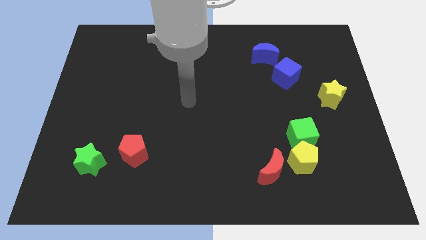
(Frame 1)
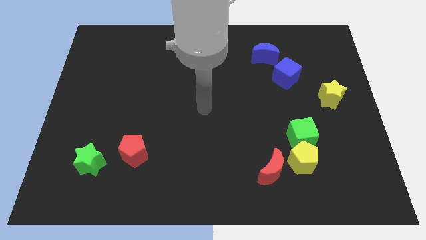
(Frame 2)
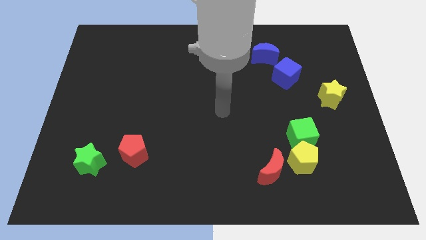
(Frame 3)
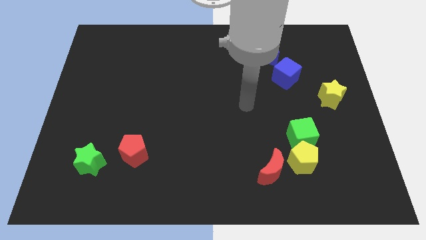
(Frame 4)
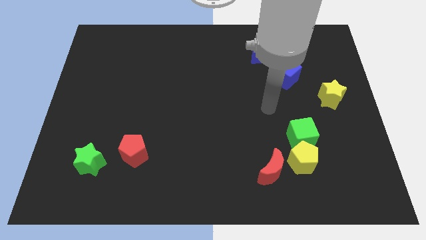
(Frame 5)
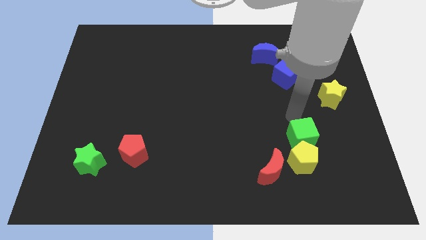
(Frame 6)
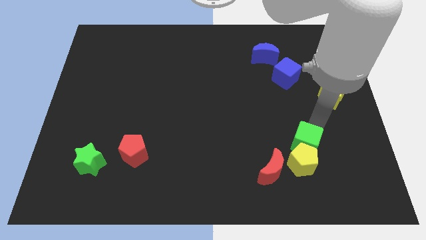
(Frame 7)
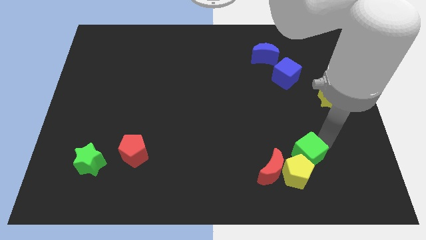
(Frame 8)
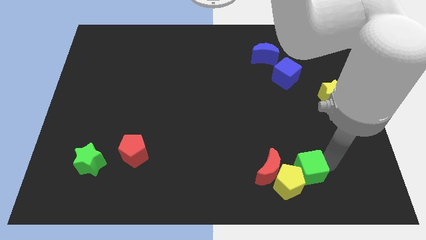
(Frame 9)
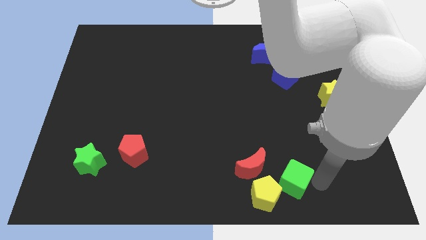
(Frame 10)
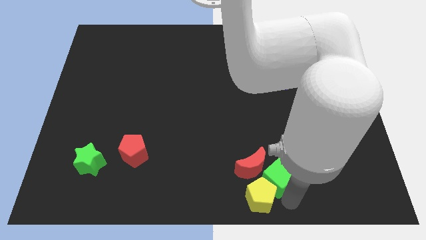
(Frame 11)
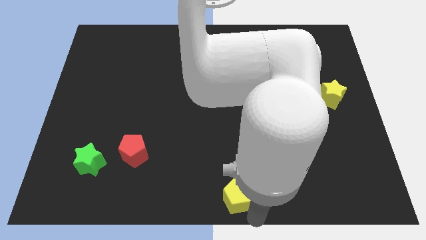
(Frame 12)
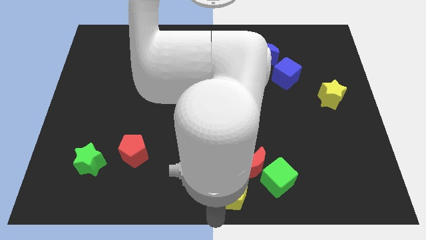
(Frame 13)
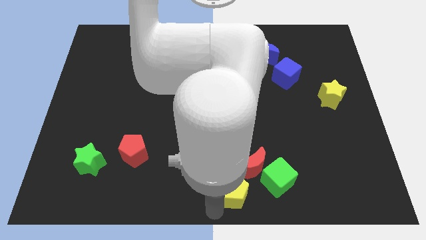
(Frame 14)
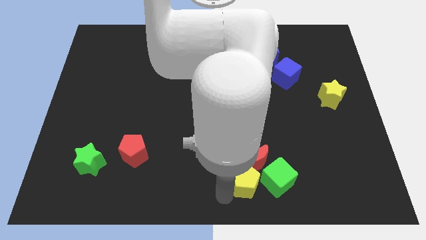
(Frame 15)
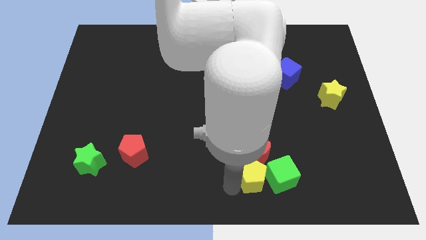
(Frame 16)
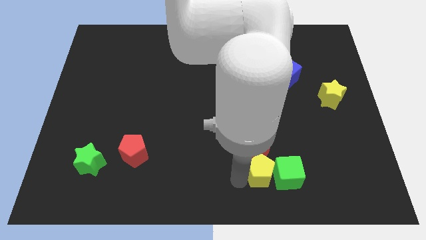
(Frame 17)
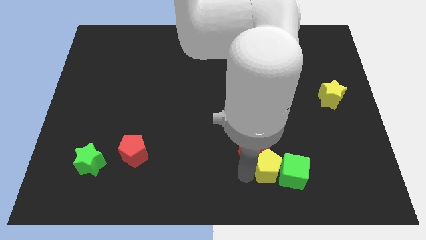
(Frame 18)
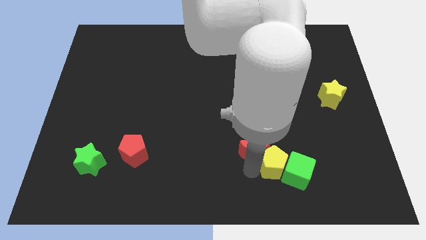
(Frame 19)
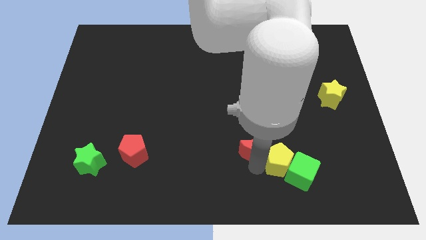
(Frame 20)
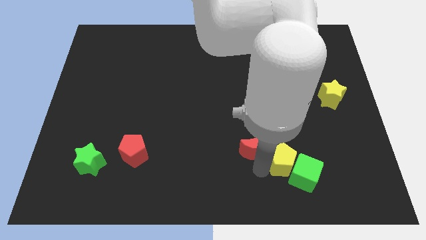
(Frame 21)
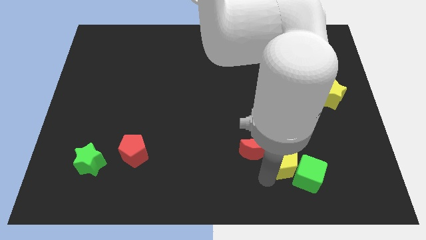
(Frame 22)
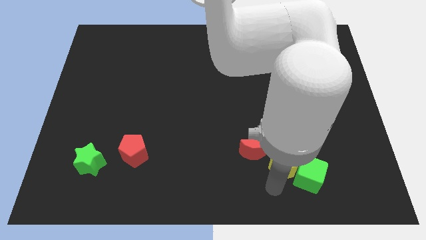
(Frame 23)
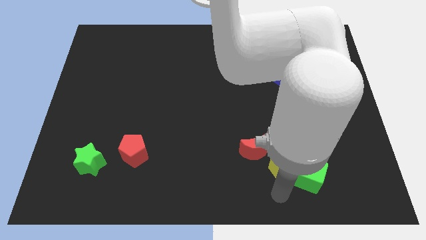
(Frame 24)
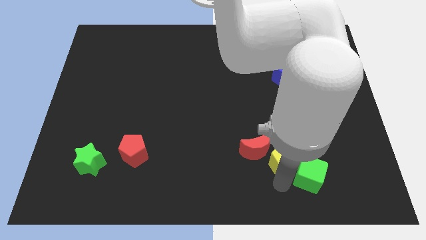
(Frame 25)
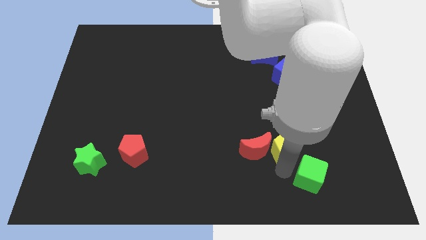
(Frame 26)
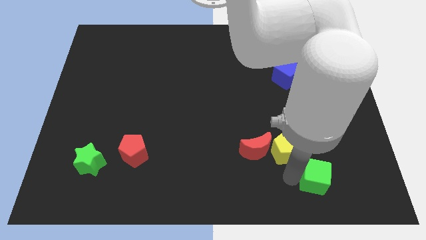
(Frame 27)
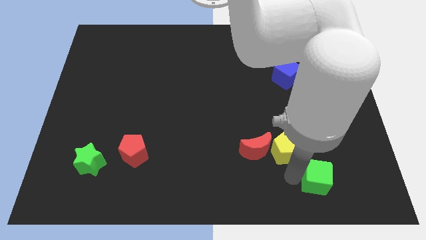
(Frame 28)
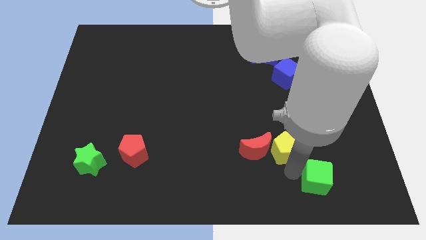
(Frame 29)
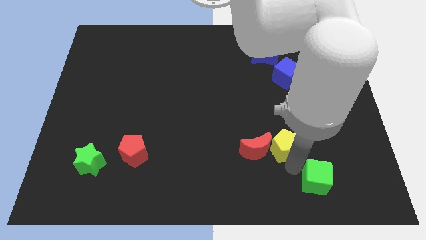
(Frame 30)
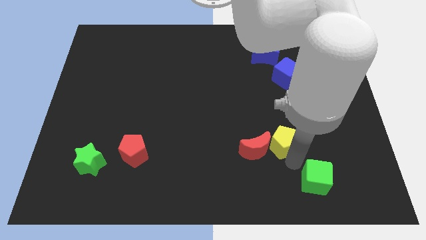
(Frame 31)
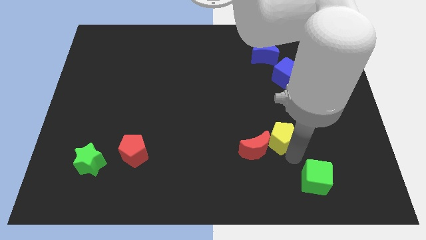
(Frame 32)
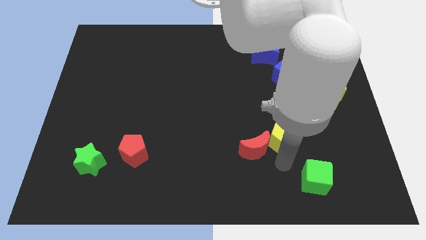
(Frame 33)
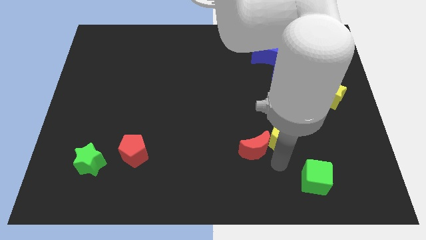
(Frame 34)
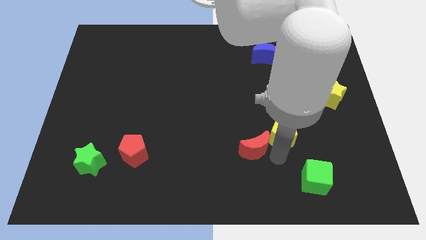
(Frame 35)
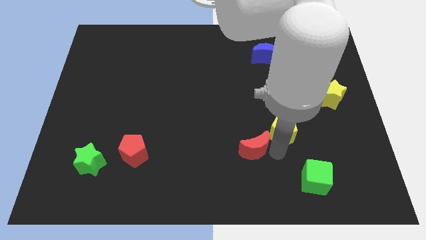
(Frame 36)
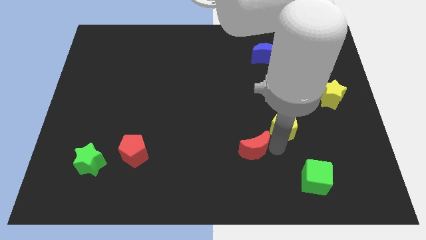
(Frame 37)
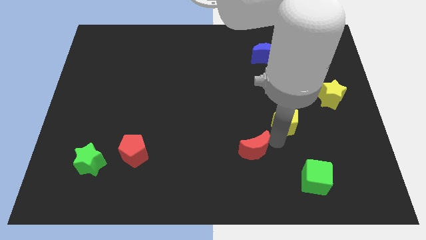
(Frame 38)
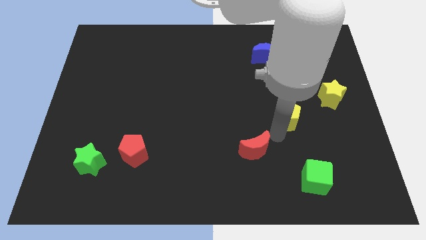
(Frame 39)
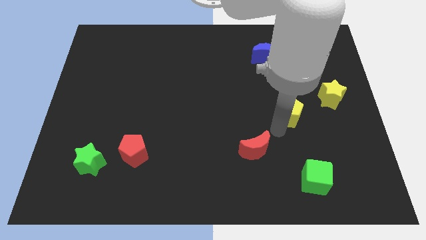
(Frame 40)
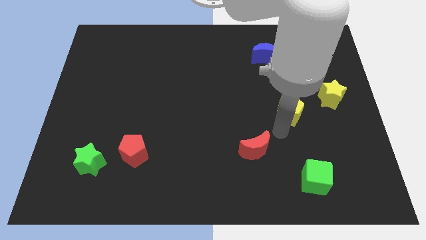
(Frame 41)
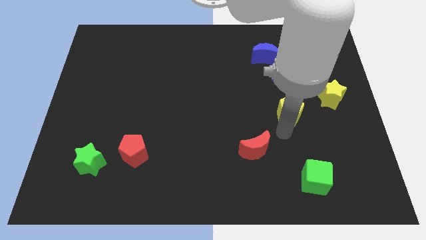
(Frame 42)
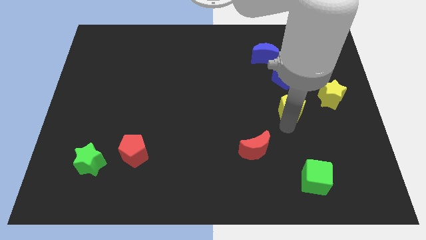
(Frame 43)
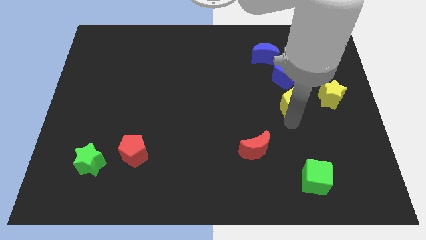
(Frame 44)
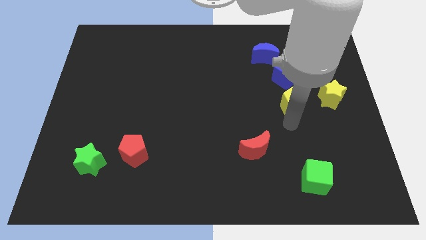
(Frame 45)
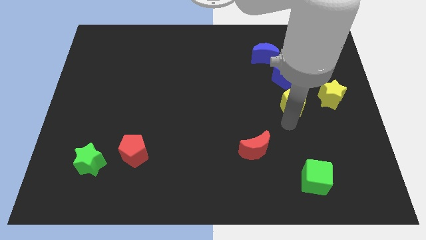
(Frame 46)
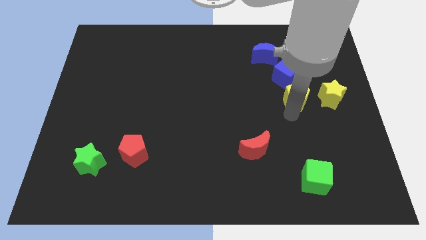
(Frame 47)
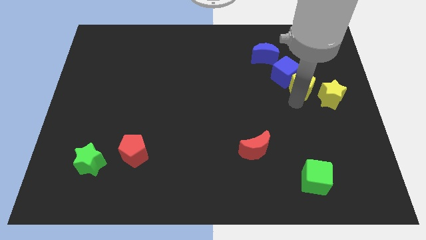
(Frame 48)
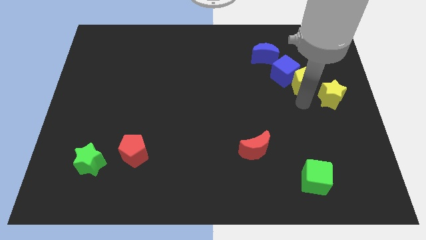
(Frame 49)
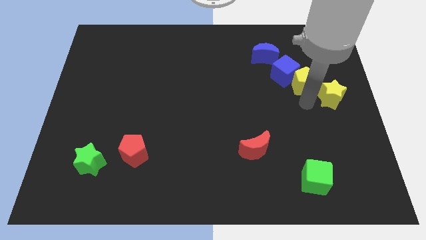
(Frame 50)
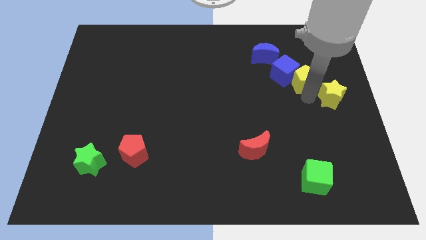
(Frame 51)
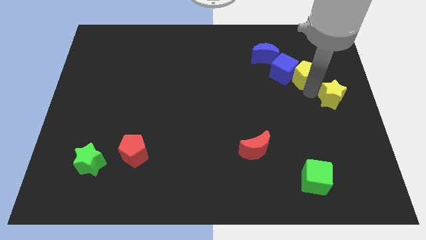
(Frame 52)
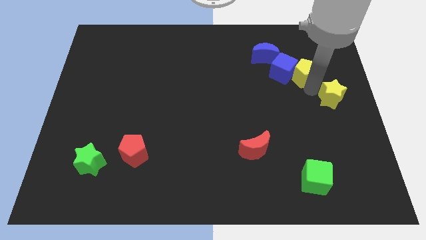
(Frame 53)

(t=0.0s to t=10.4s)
slide the yellow pentagon to the top right of the blue cube

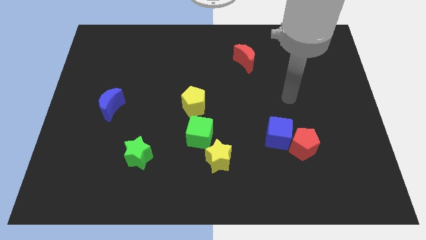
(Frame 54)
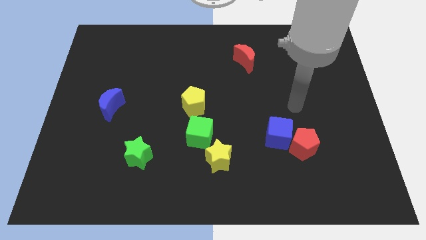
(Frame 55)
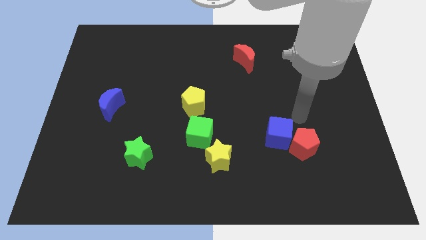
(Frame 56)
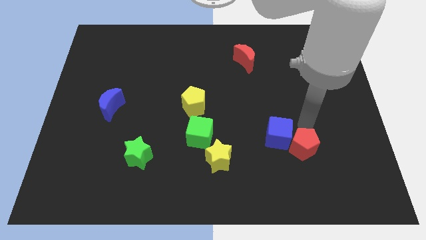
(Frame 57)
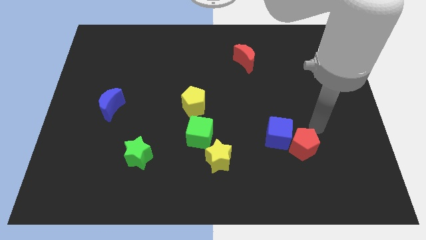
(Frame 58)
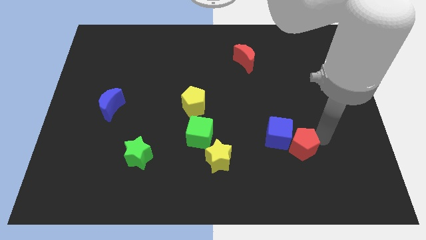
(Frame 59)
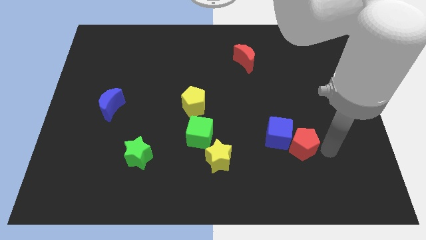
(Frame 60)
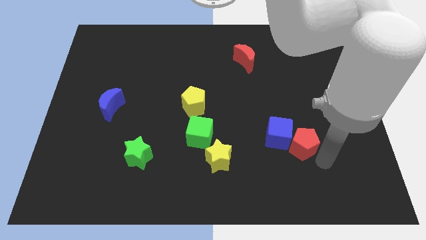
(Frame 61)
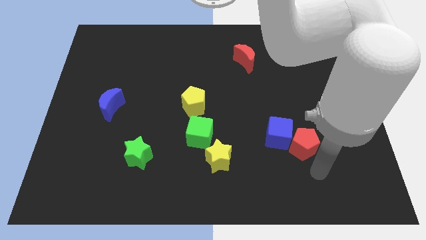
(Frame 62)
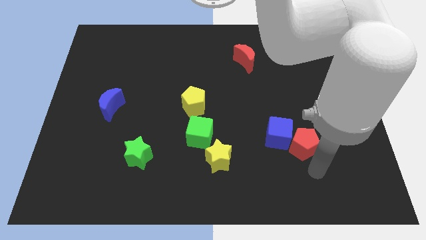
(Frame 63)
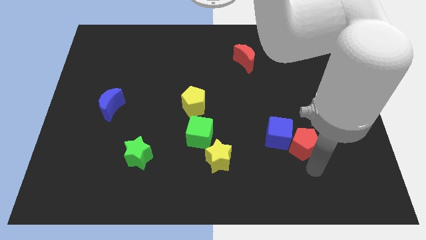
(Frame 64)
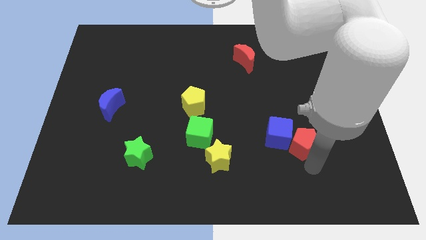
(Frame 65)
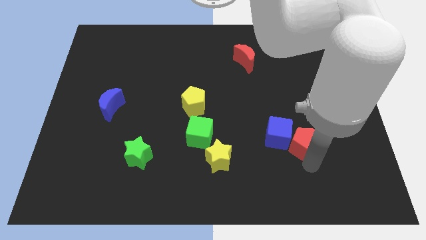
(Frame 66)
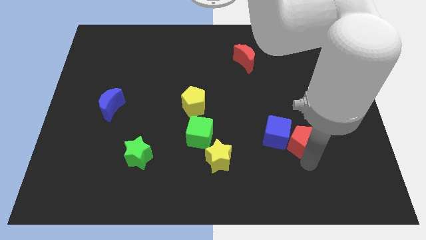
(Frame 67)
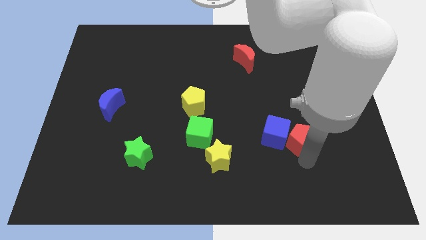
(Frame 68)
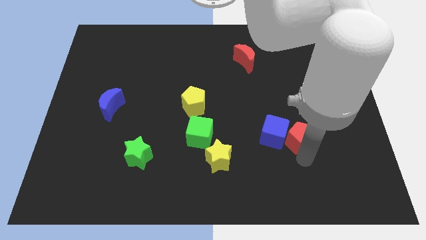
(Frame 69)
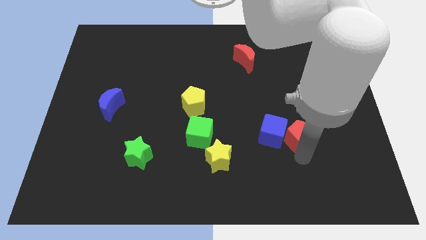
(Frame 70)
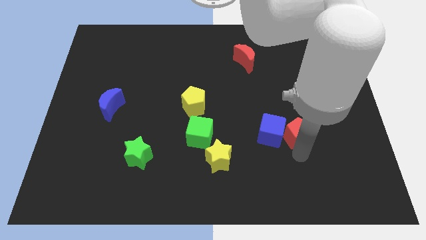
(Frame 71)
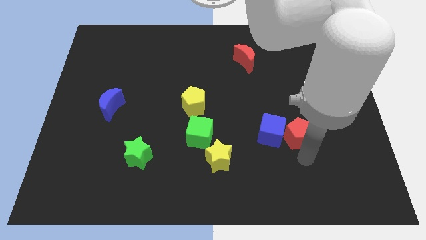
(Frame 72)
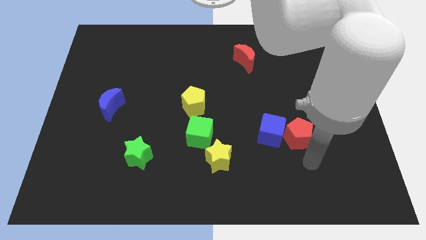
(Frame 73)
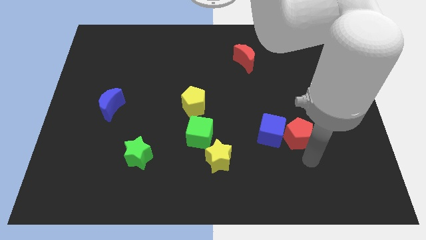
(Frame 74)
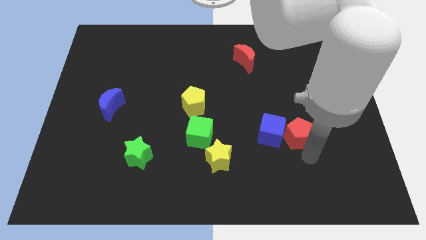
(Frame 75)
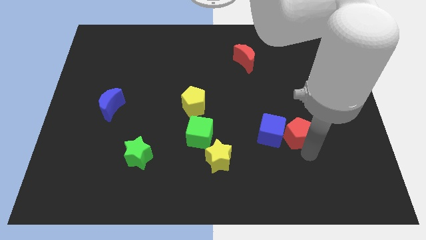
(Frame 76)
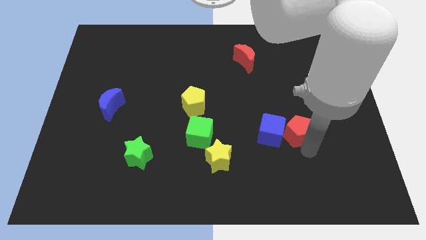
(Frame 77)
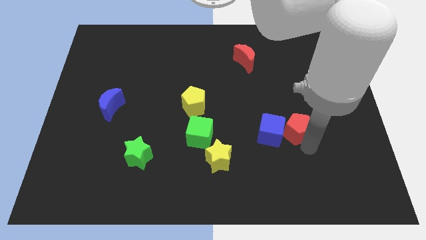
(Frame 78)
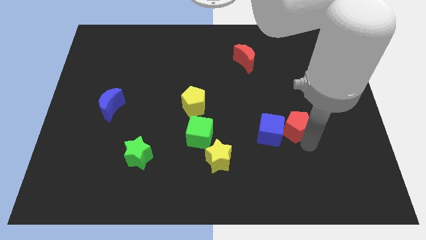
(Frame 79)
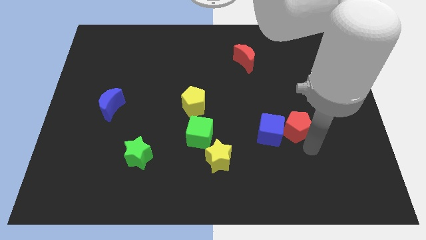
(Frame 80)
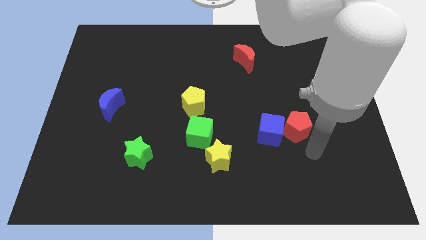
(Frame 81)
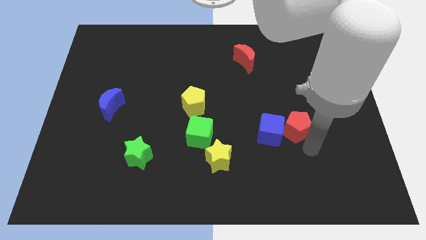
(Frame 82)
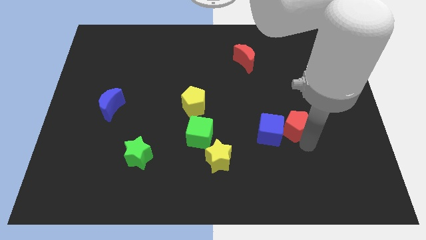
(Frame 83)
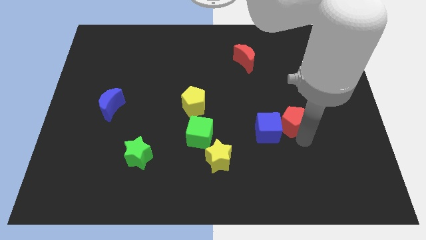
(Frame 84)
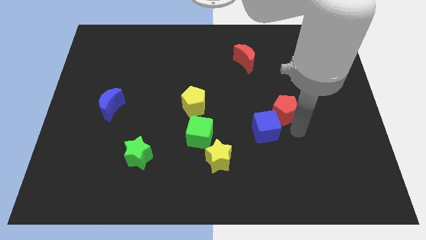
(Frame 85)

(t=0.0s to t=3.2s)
push the red pentagon to the top of the blue cube
